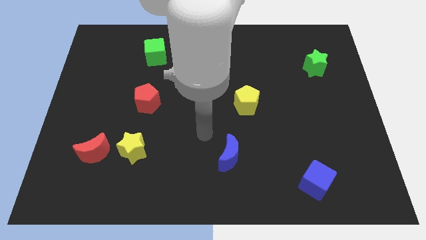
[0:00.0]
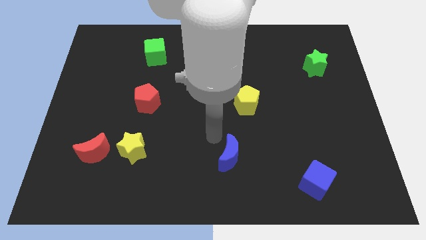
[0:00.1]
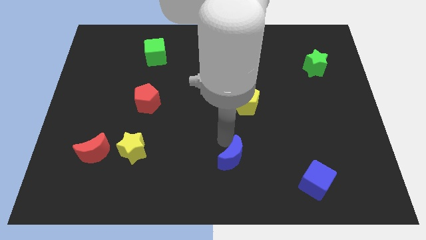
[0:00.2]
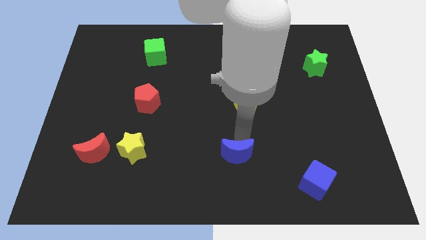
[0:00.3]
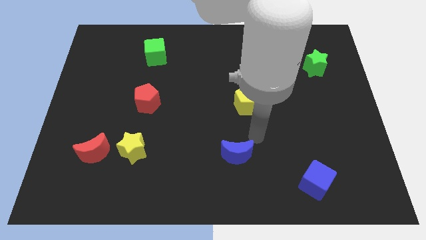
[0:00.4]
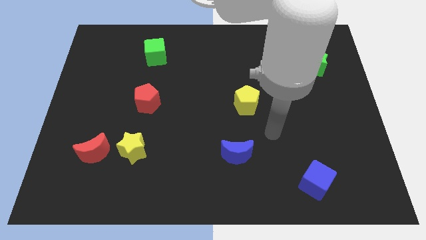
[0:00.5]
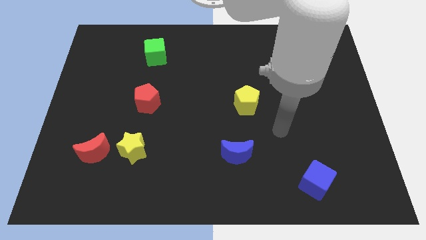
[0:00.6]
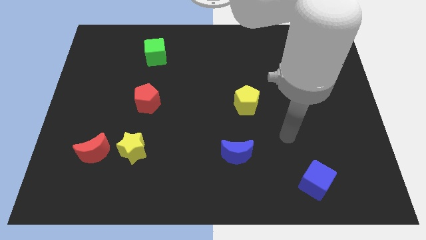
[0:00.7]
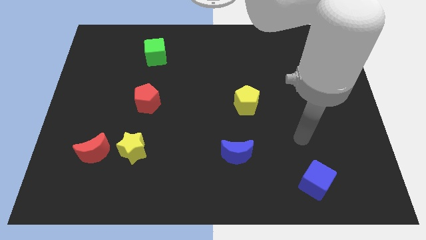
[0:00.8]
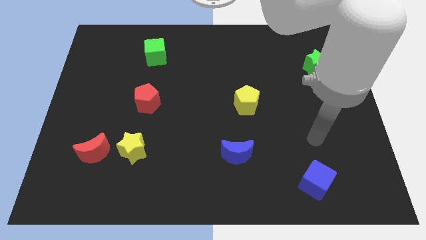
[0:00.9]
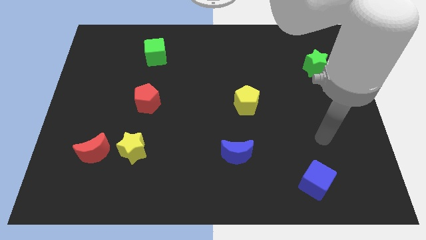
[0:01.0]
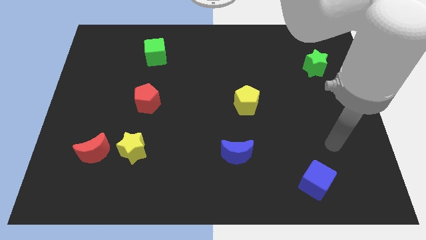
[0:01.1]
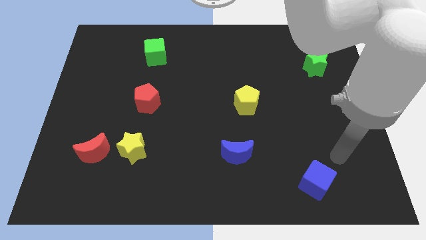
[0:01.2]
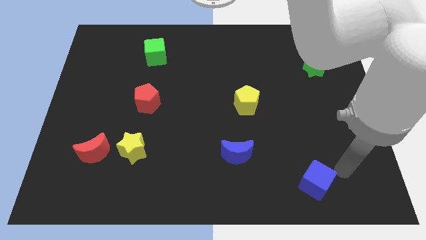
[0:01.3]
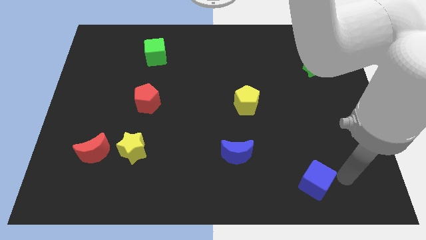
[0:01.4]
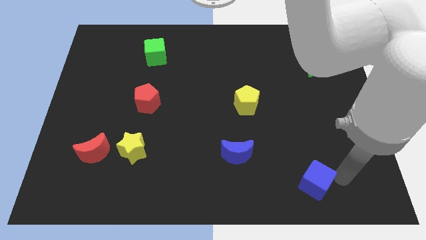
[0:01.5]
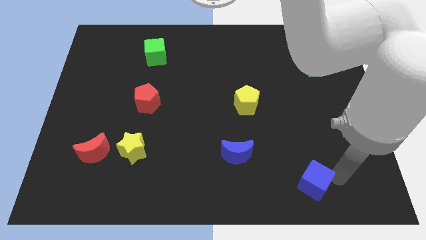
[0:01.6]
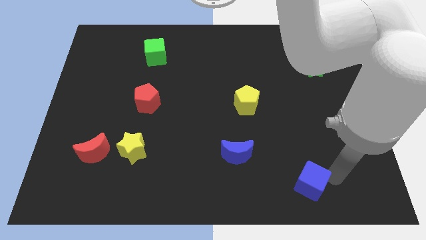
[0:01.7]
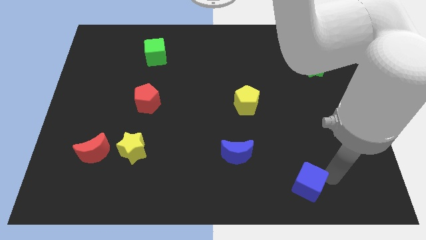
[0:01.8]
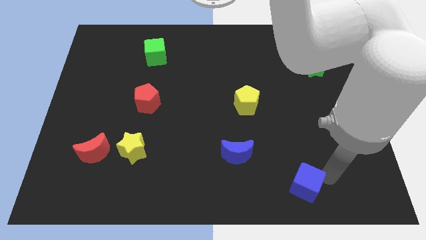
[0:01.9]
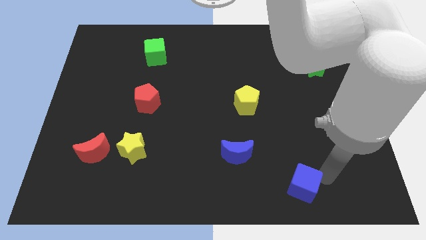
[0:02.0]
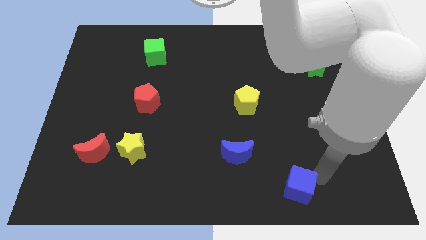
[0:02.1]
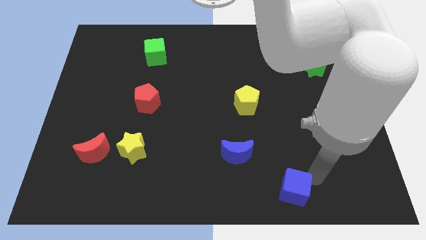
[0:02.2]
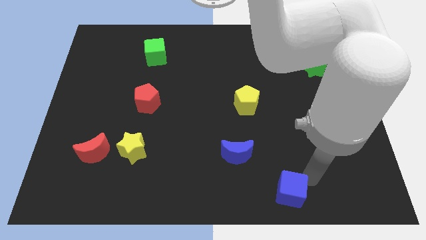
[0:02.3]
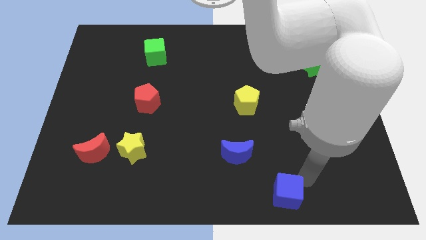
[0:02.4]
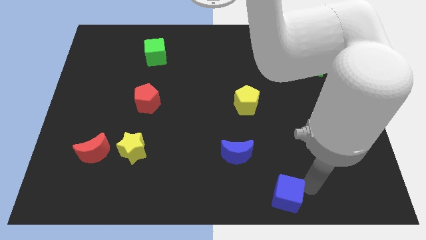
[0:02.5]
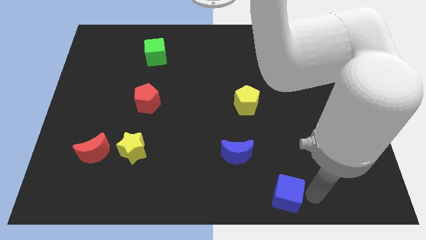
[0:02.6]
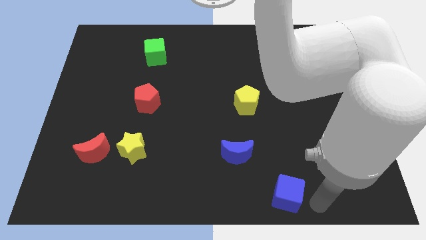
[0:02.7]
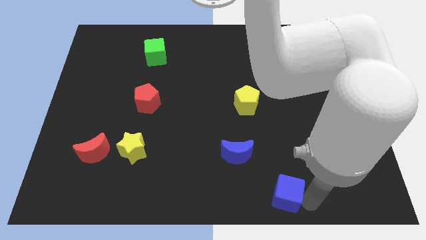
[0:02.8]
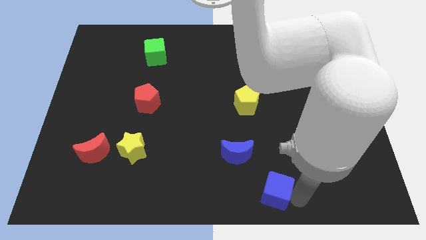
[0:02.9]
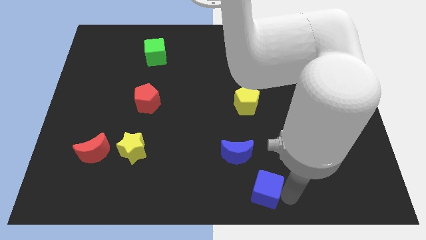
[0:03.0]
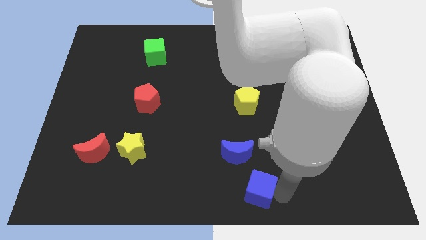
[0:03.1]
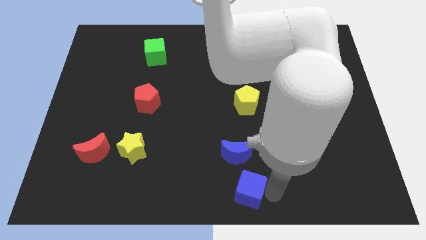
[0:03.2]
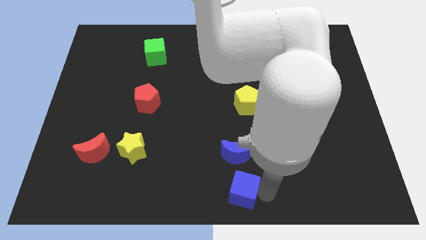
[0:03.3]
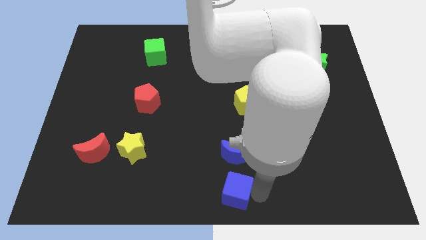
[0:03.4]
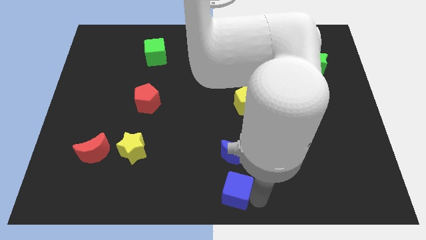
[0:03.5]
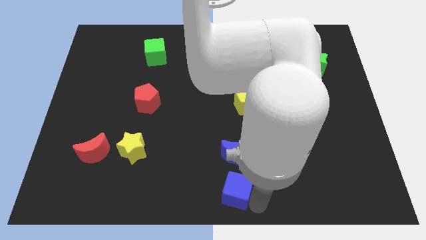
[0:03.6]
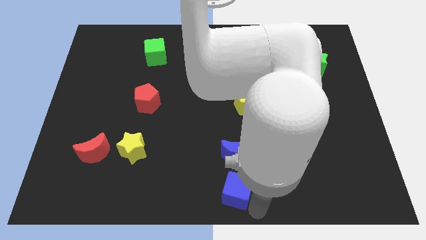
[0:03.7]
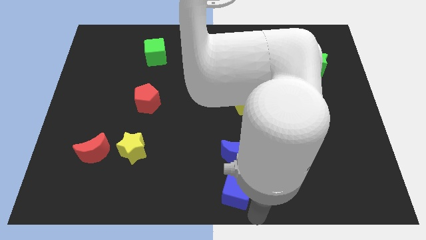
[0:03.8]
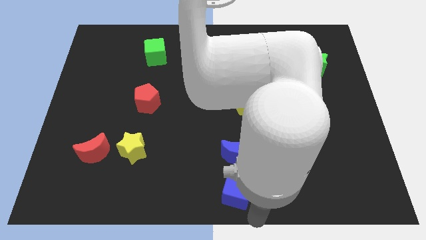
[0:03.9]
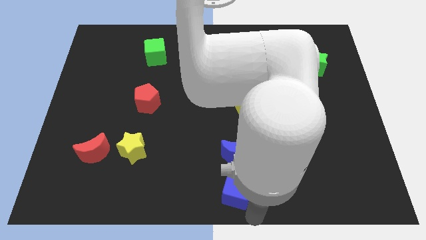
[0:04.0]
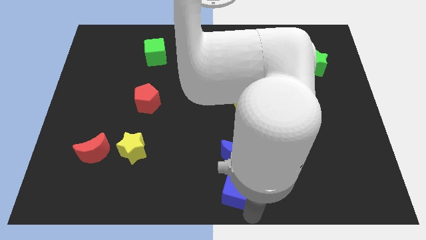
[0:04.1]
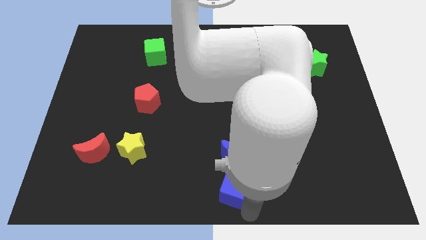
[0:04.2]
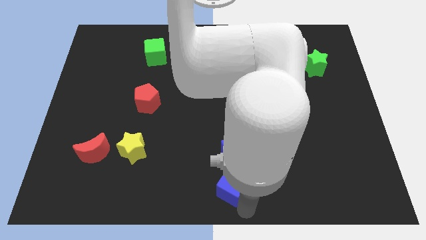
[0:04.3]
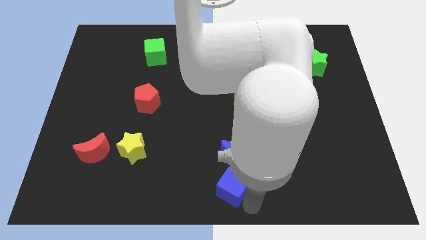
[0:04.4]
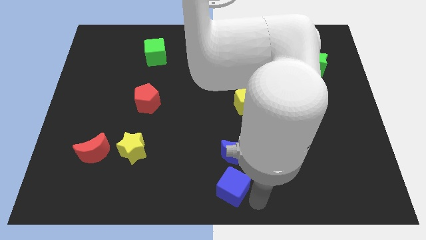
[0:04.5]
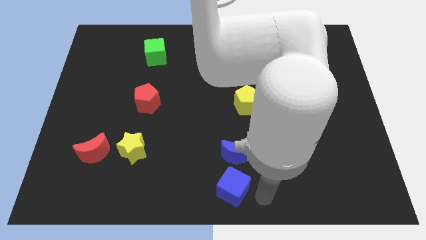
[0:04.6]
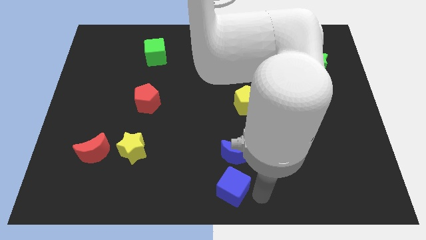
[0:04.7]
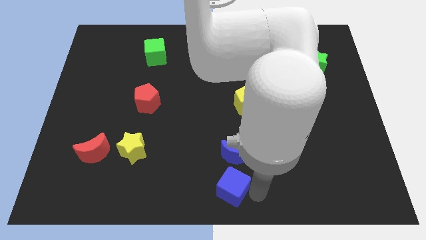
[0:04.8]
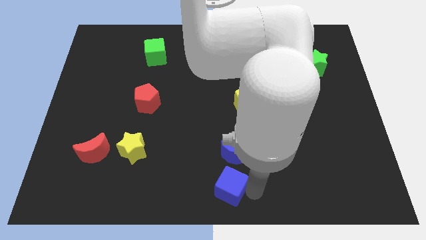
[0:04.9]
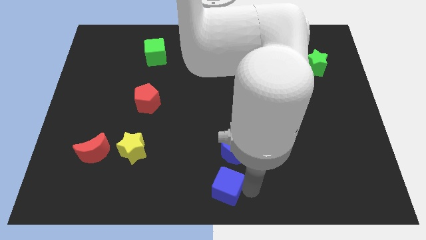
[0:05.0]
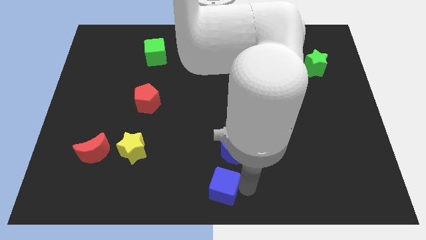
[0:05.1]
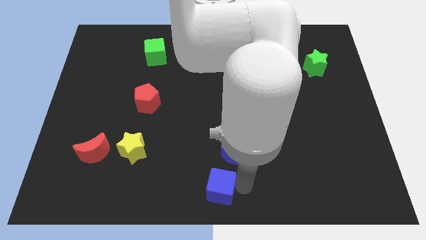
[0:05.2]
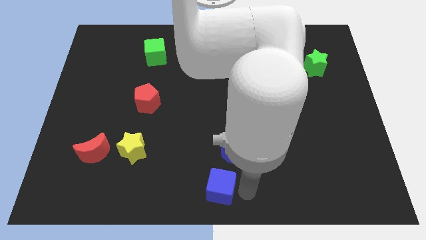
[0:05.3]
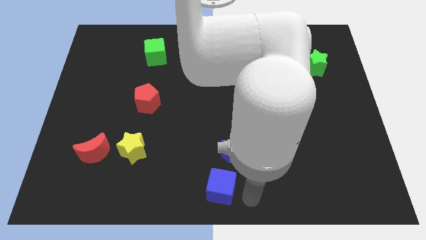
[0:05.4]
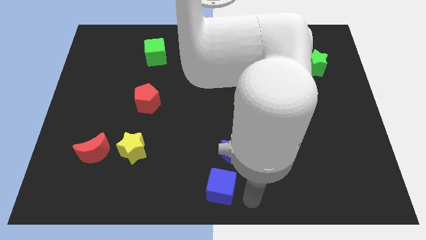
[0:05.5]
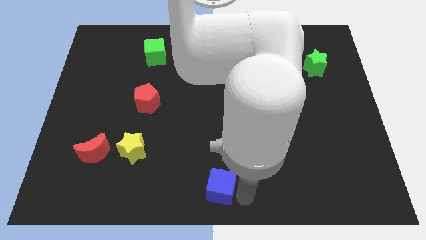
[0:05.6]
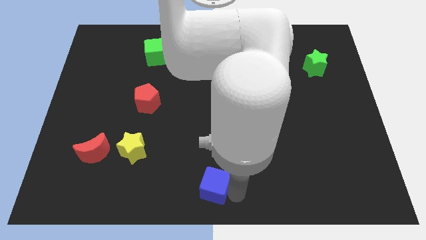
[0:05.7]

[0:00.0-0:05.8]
move the blue cube left

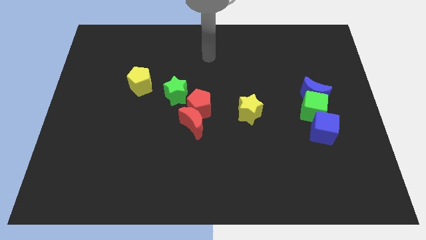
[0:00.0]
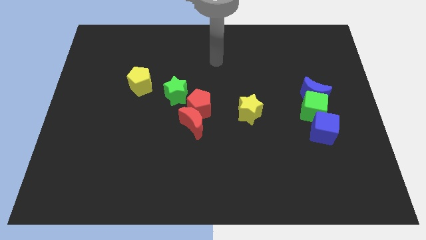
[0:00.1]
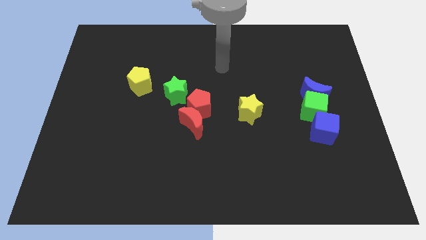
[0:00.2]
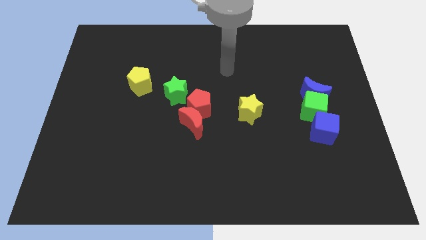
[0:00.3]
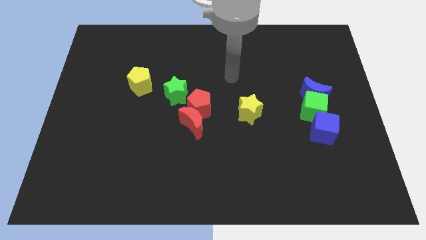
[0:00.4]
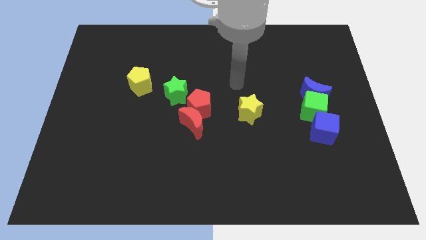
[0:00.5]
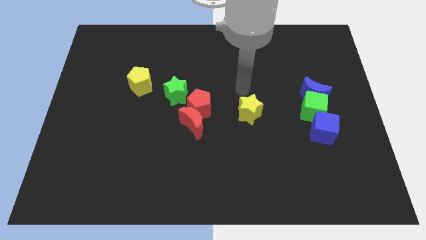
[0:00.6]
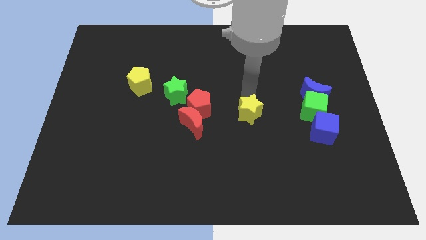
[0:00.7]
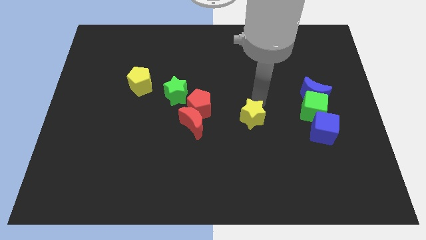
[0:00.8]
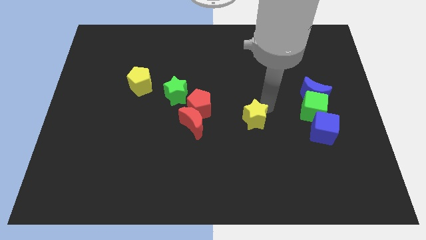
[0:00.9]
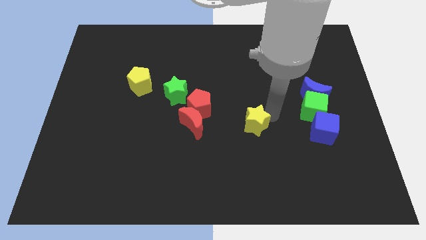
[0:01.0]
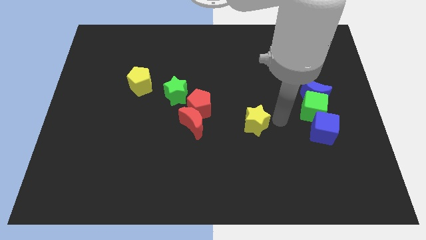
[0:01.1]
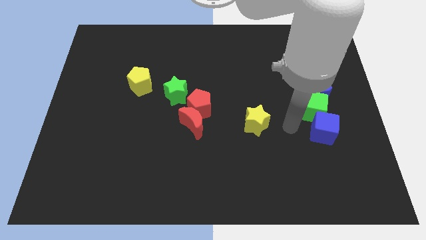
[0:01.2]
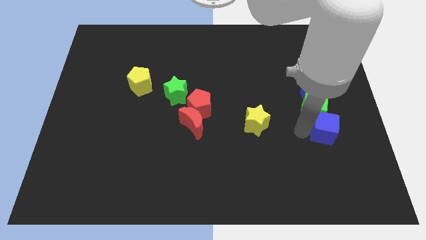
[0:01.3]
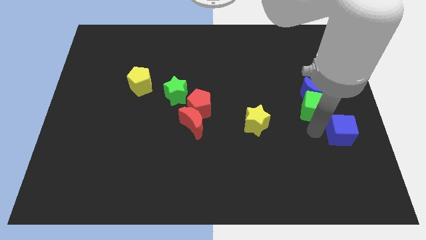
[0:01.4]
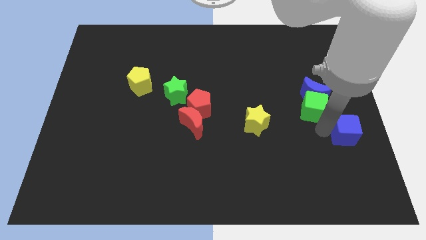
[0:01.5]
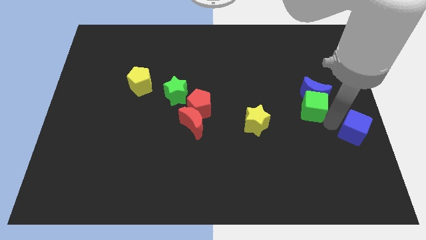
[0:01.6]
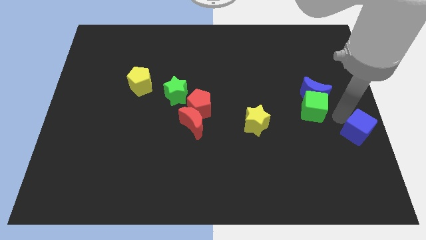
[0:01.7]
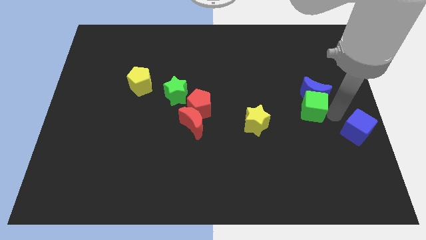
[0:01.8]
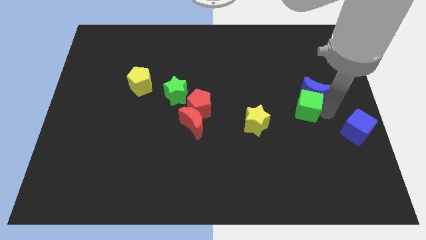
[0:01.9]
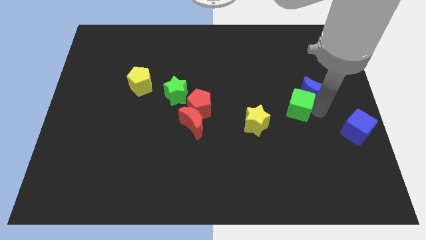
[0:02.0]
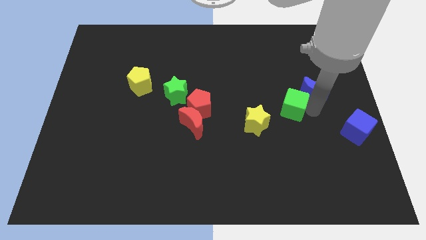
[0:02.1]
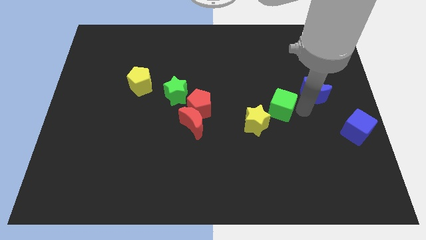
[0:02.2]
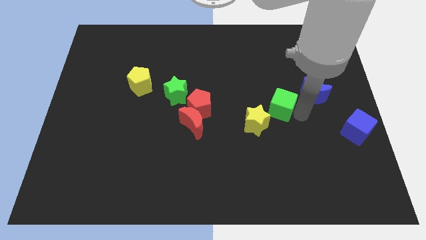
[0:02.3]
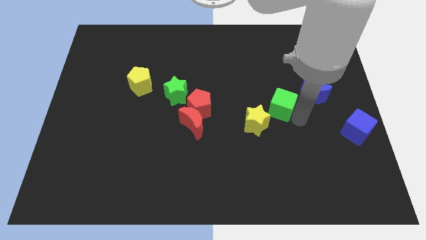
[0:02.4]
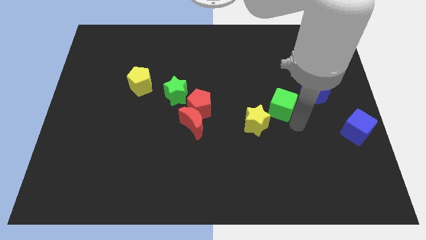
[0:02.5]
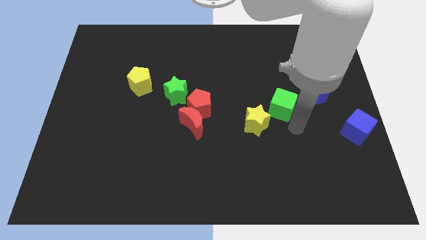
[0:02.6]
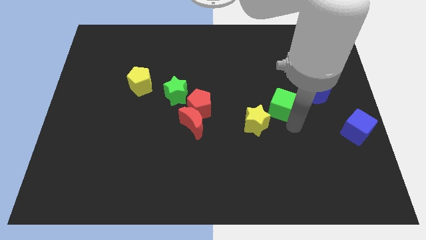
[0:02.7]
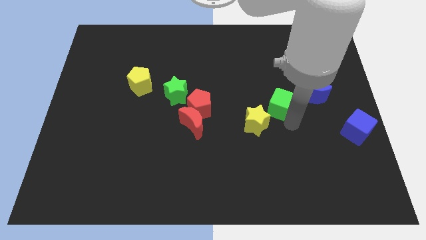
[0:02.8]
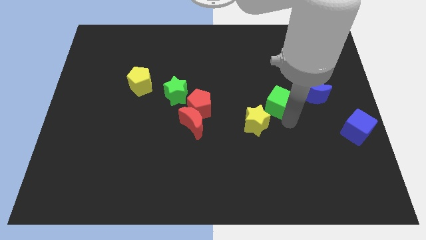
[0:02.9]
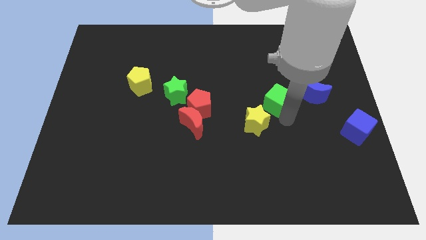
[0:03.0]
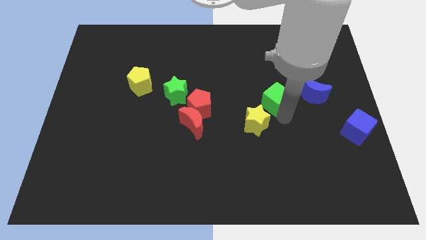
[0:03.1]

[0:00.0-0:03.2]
slide the green cube diagonally upwards and to the left a little
